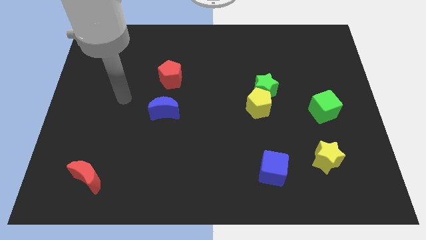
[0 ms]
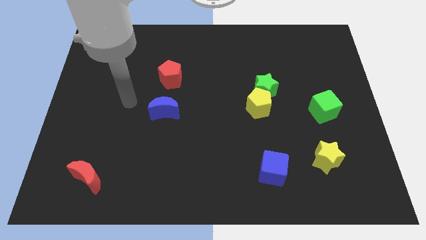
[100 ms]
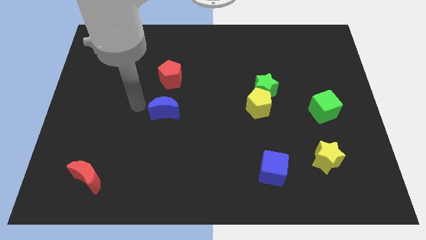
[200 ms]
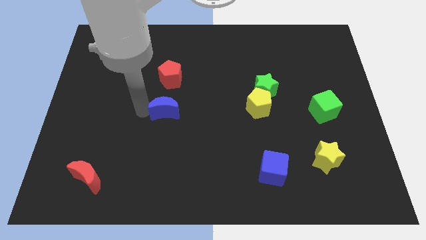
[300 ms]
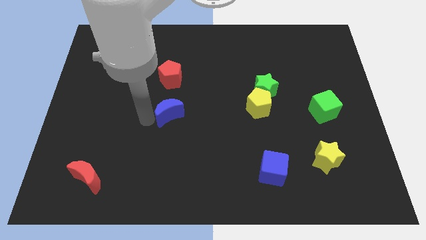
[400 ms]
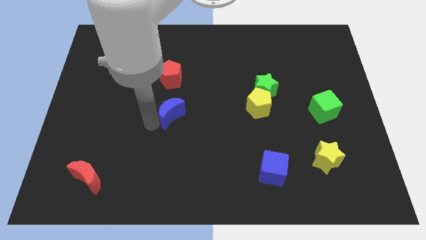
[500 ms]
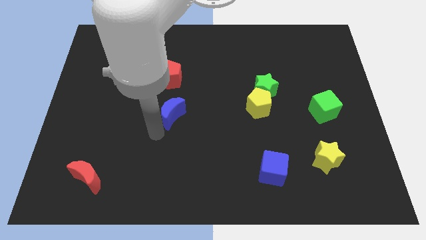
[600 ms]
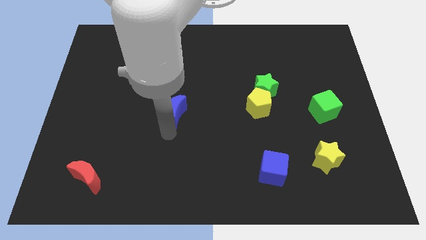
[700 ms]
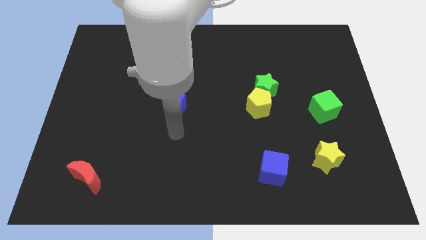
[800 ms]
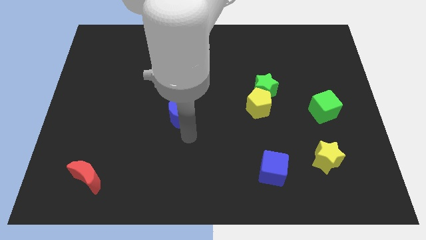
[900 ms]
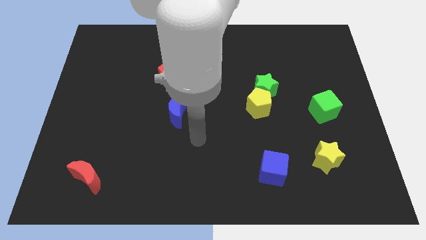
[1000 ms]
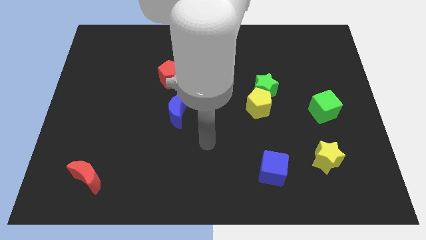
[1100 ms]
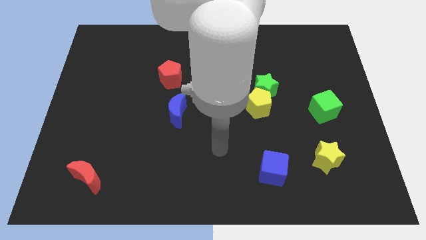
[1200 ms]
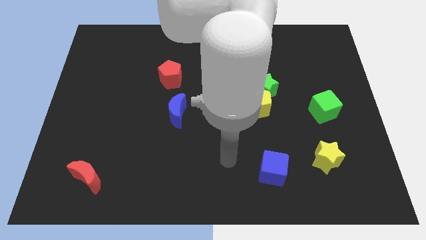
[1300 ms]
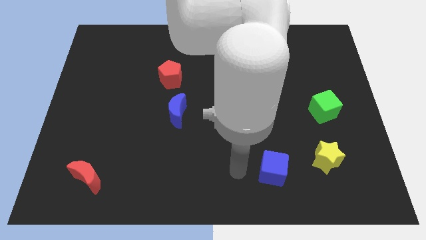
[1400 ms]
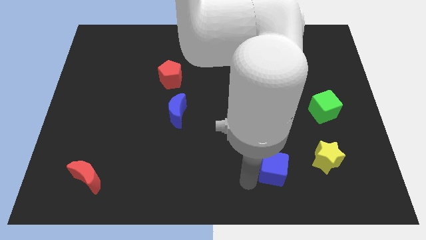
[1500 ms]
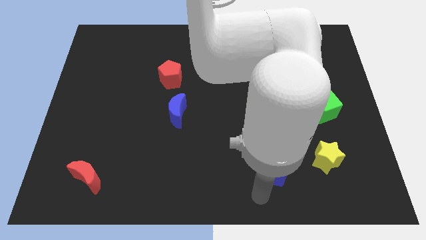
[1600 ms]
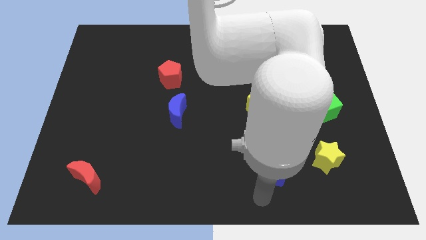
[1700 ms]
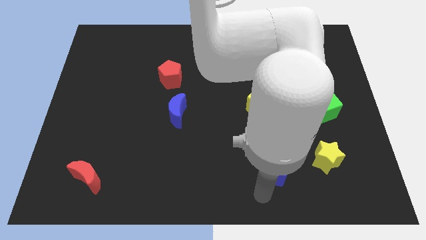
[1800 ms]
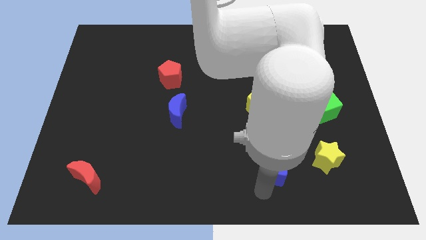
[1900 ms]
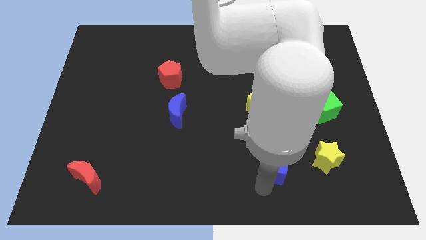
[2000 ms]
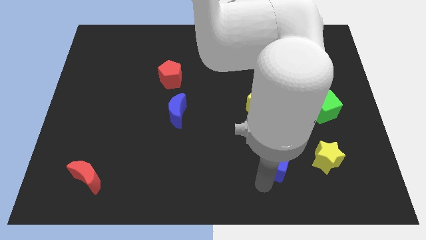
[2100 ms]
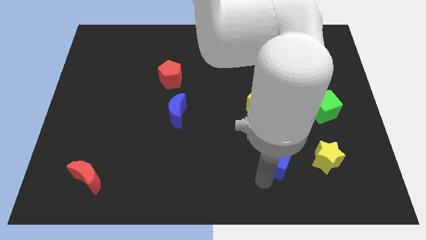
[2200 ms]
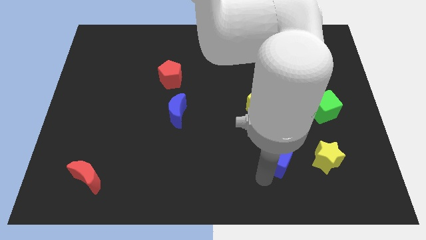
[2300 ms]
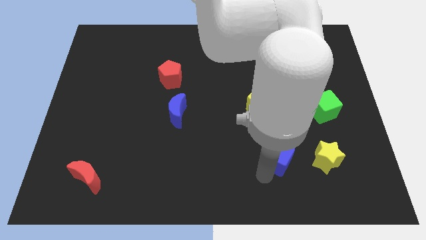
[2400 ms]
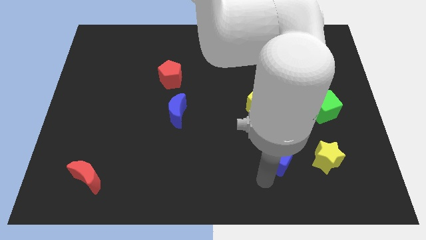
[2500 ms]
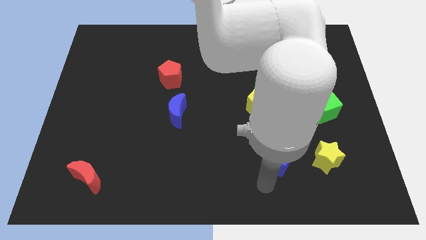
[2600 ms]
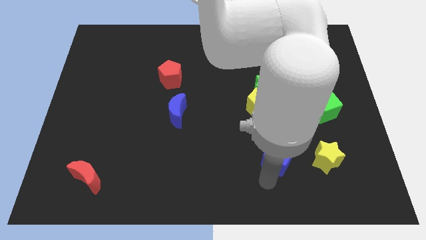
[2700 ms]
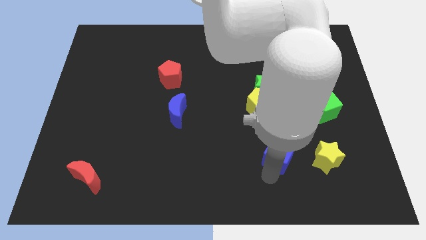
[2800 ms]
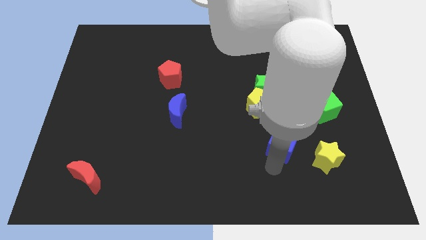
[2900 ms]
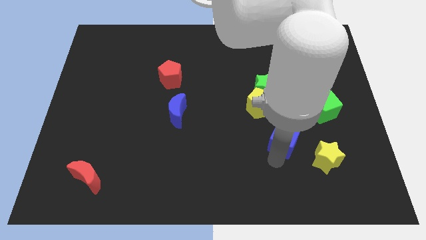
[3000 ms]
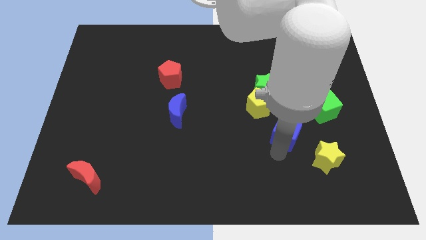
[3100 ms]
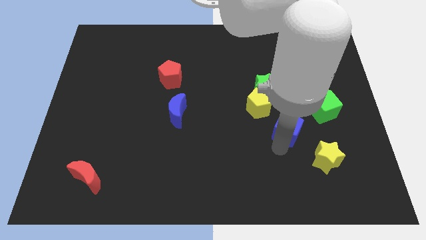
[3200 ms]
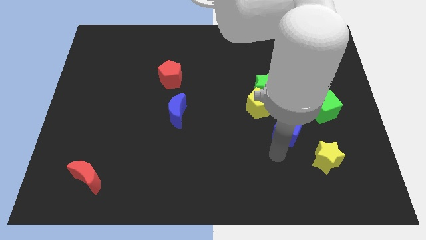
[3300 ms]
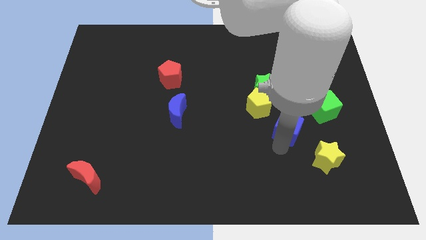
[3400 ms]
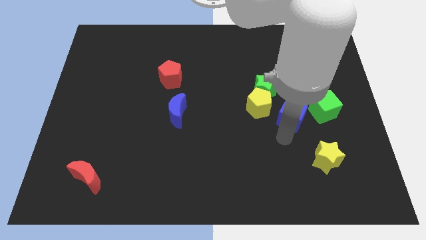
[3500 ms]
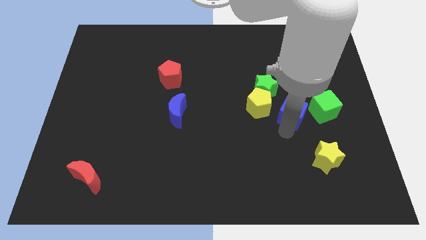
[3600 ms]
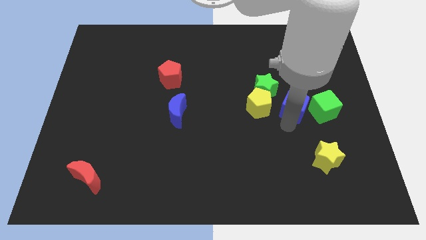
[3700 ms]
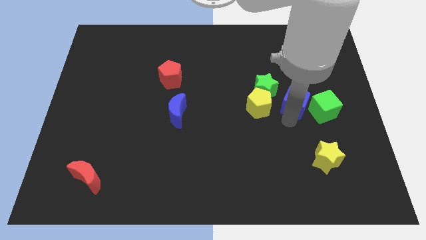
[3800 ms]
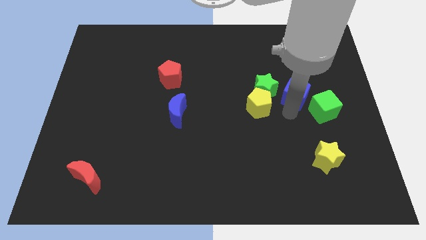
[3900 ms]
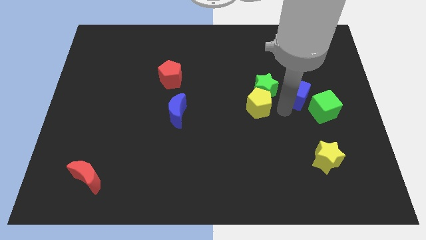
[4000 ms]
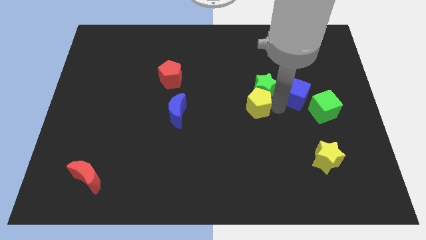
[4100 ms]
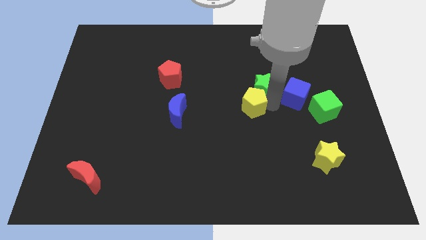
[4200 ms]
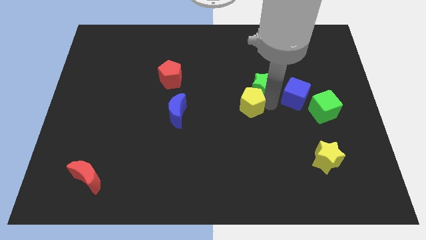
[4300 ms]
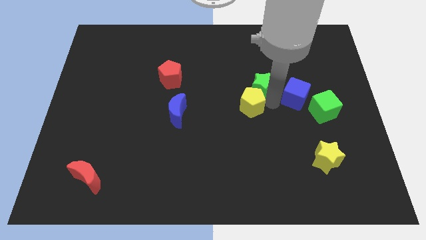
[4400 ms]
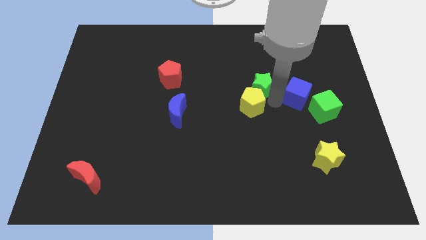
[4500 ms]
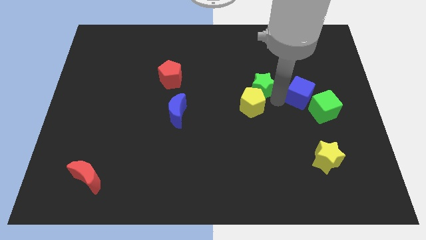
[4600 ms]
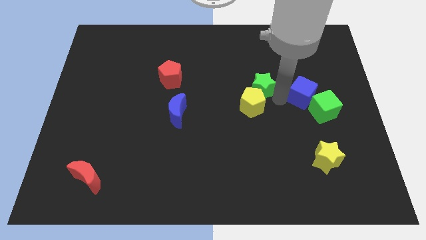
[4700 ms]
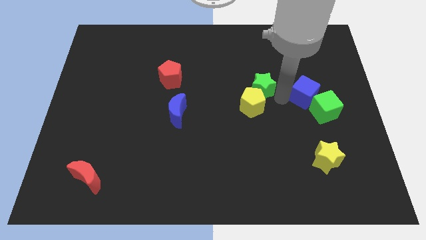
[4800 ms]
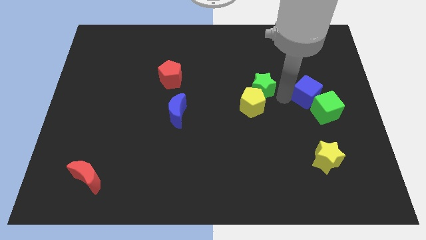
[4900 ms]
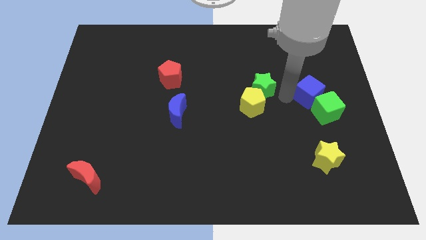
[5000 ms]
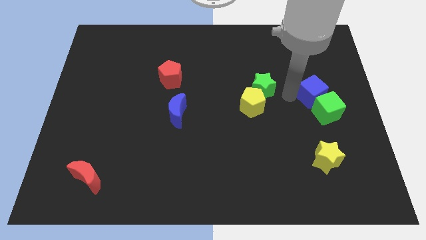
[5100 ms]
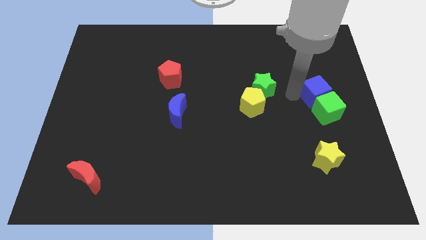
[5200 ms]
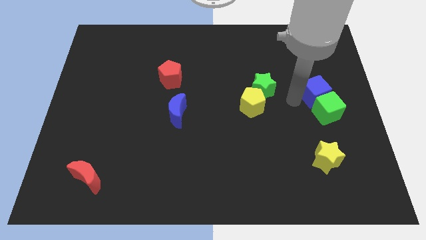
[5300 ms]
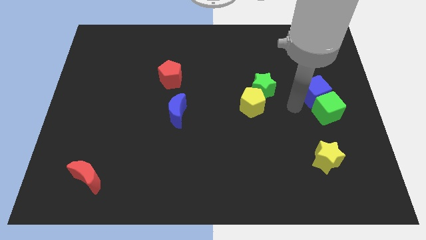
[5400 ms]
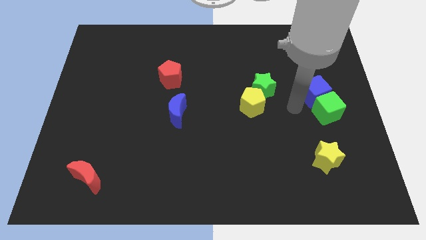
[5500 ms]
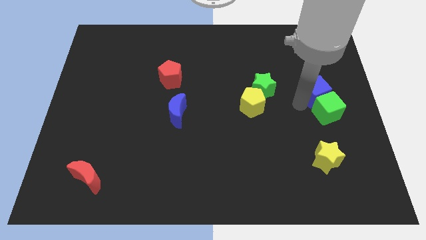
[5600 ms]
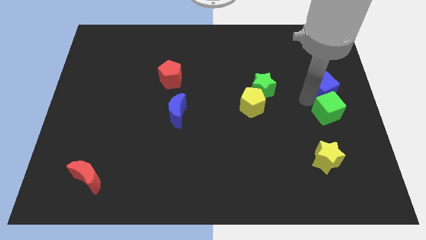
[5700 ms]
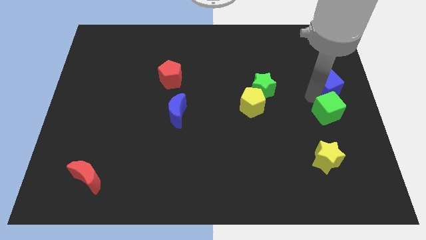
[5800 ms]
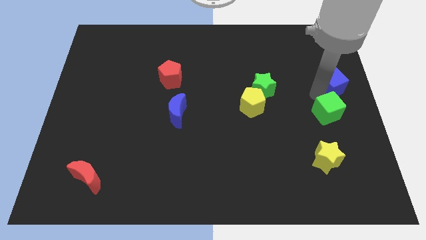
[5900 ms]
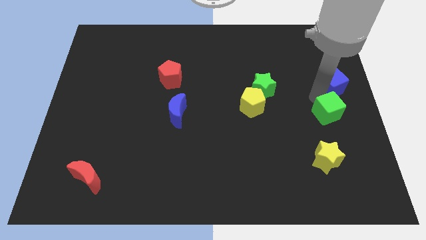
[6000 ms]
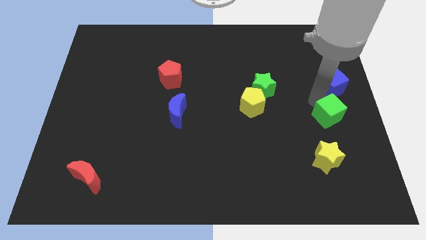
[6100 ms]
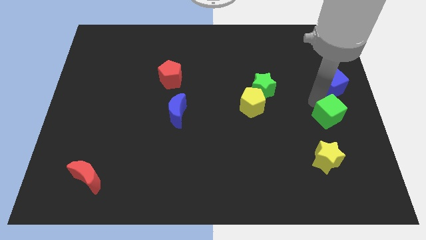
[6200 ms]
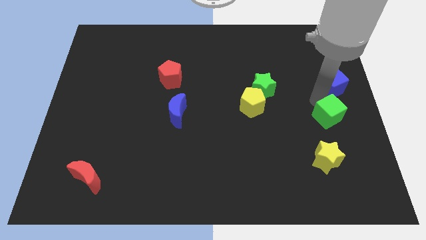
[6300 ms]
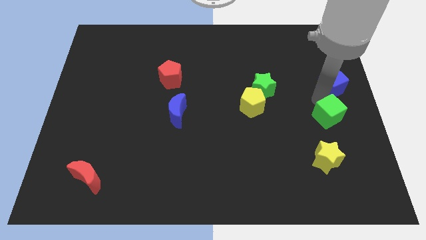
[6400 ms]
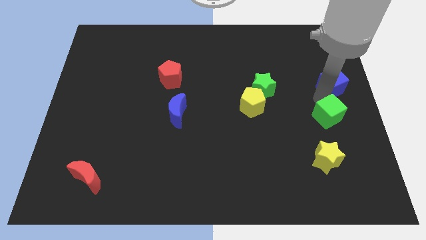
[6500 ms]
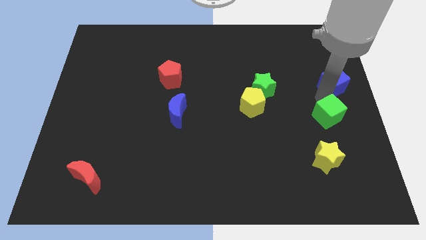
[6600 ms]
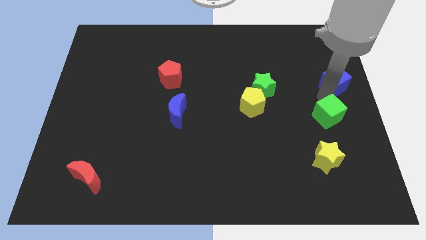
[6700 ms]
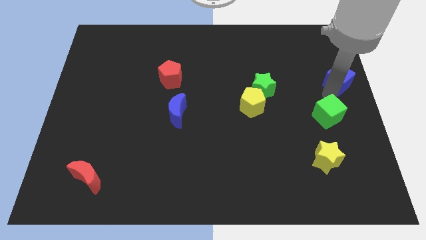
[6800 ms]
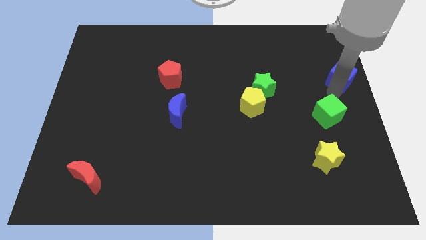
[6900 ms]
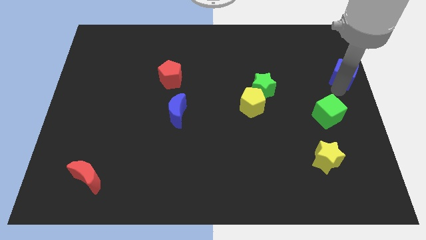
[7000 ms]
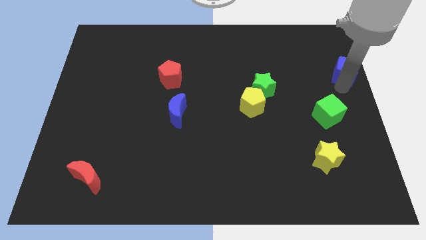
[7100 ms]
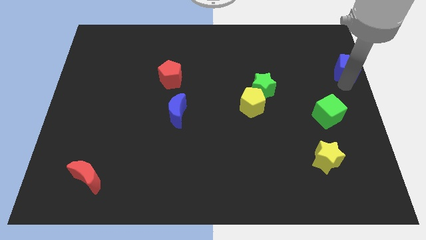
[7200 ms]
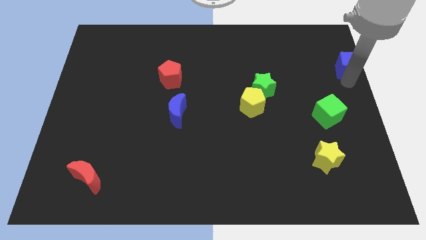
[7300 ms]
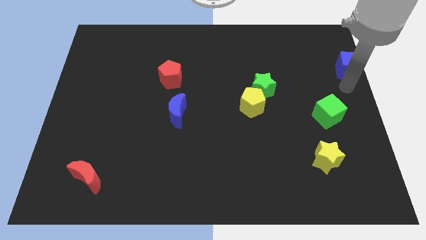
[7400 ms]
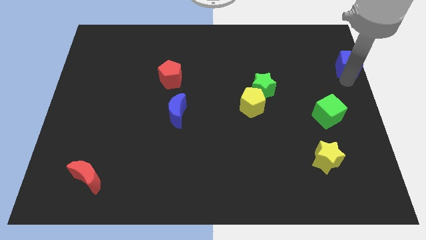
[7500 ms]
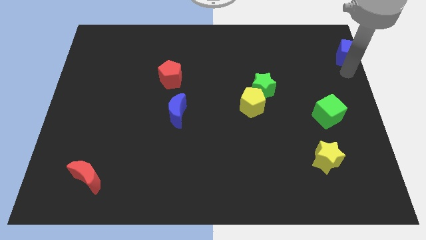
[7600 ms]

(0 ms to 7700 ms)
push the blue cube to the top right corner

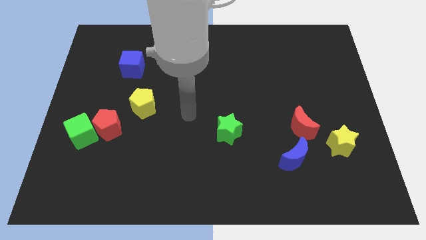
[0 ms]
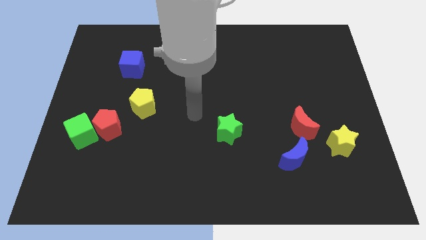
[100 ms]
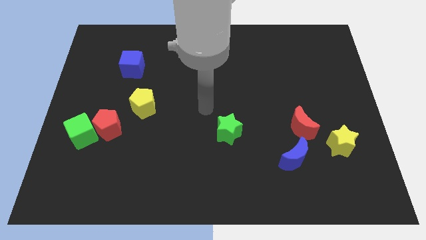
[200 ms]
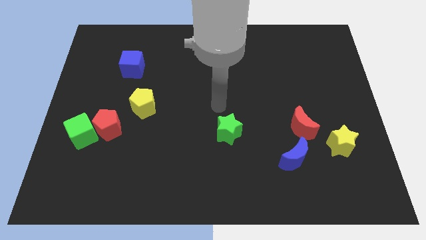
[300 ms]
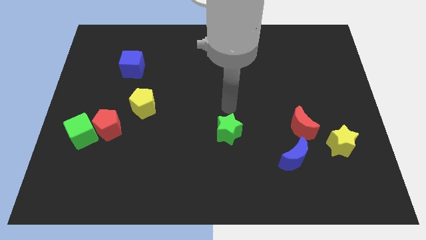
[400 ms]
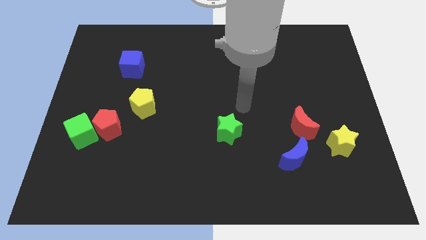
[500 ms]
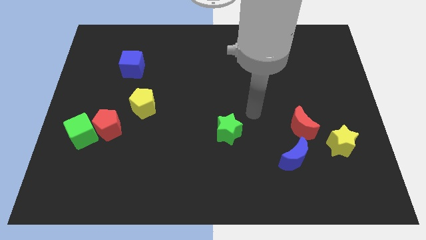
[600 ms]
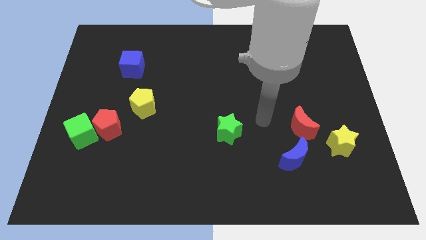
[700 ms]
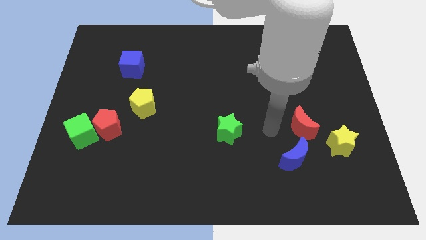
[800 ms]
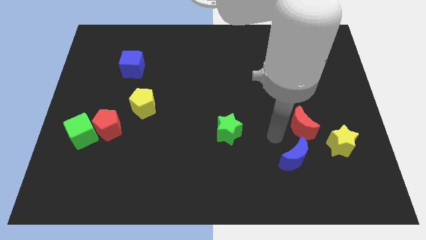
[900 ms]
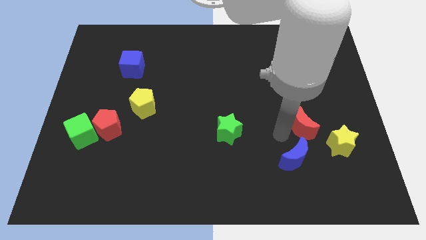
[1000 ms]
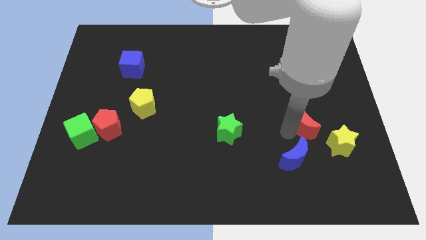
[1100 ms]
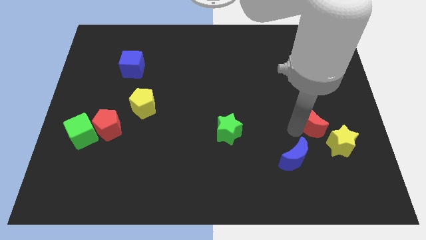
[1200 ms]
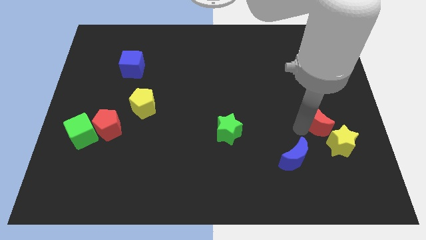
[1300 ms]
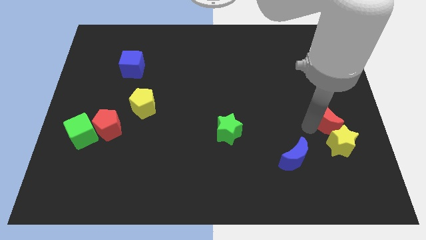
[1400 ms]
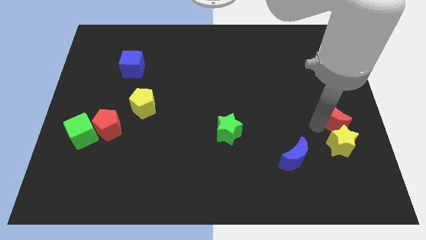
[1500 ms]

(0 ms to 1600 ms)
push the red moon to the right side of the board
